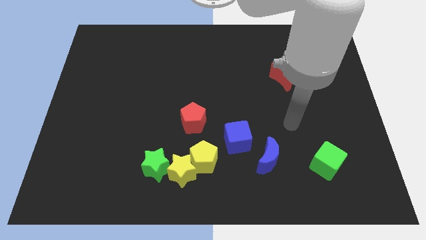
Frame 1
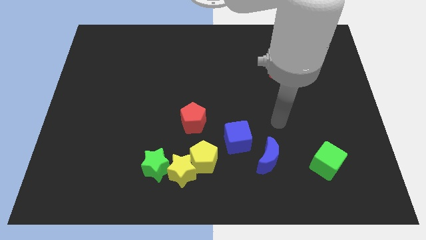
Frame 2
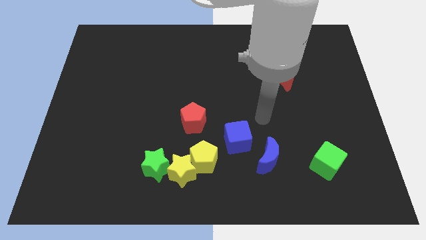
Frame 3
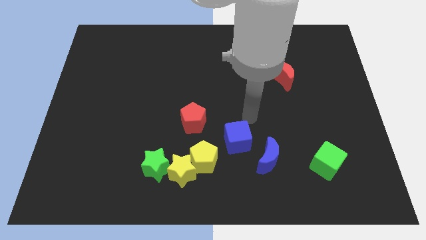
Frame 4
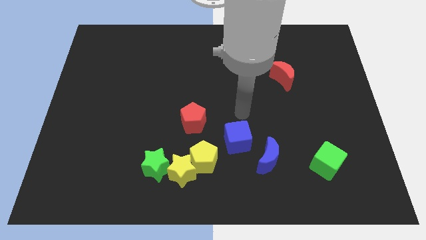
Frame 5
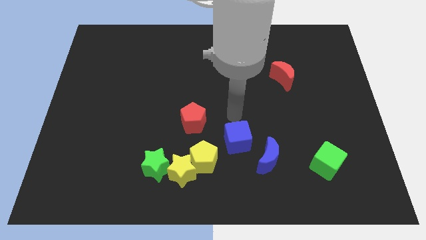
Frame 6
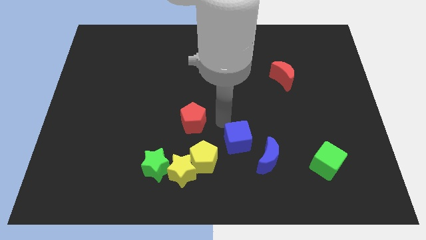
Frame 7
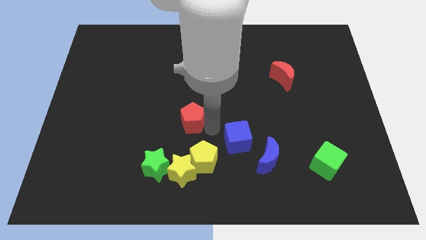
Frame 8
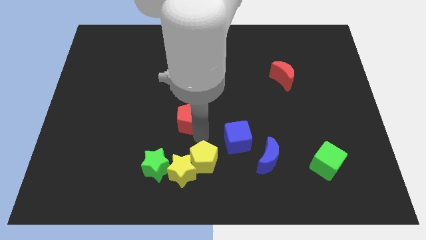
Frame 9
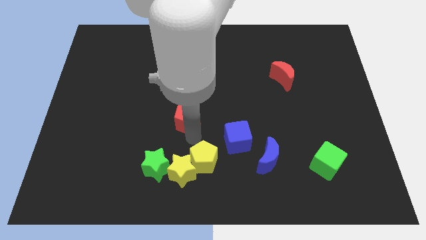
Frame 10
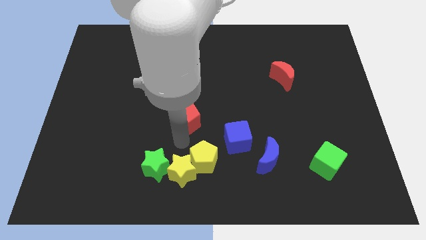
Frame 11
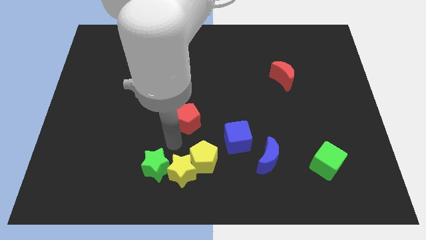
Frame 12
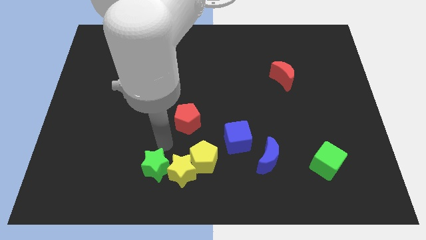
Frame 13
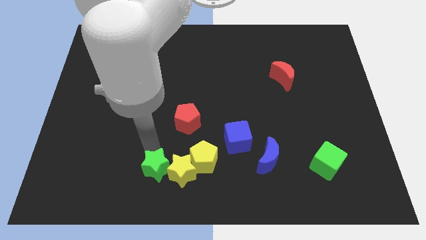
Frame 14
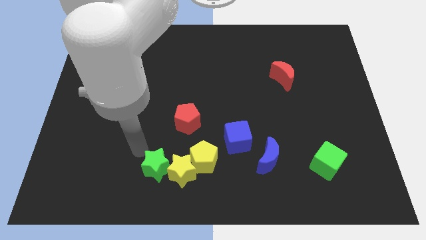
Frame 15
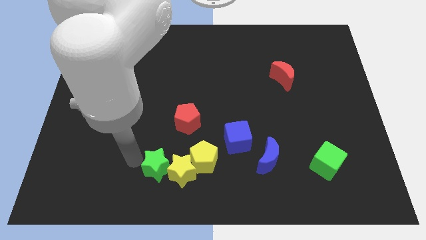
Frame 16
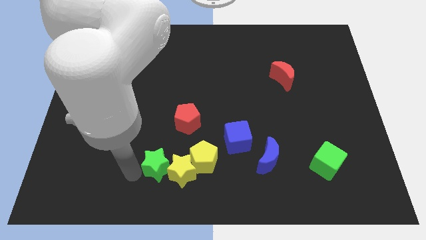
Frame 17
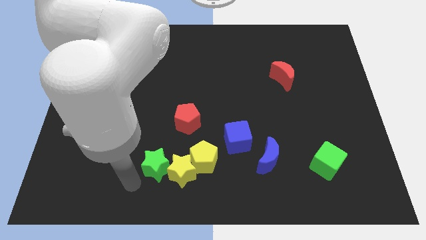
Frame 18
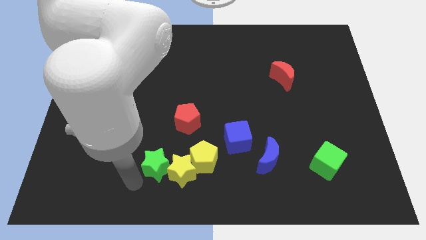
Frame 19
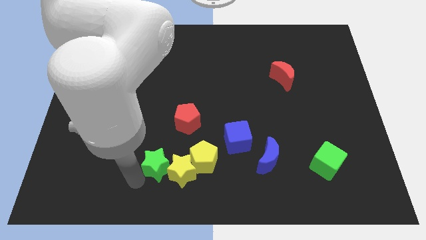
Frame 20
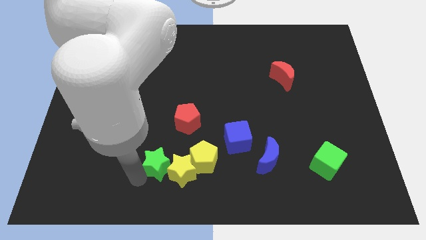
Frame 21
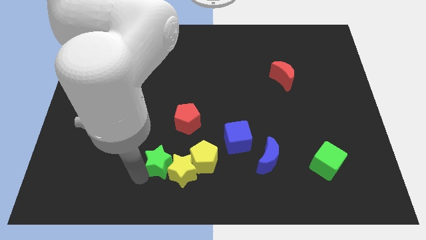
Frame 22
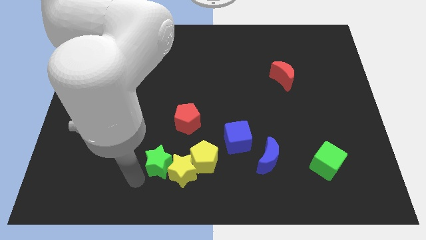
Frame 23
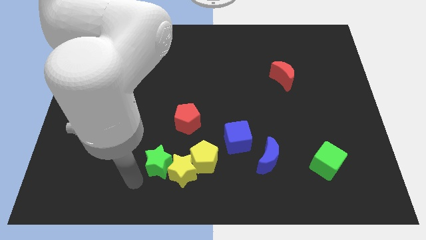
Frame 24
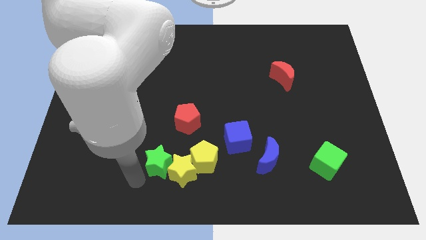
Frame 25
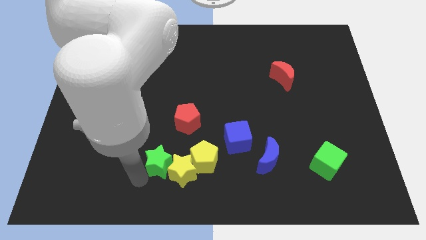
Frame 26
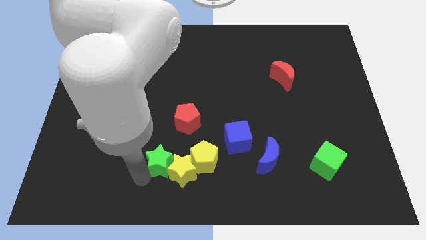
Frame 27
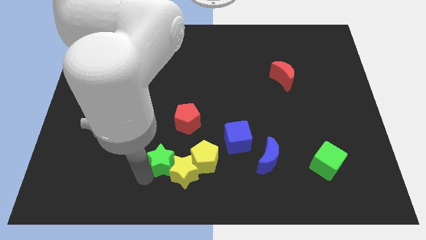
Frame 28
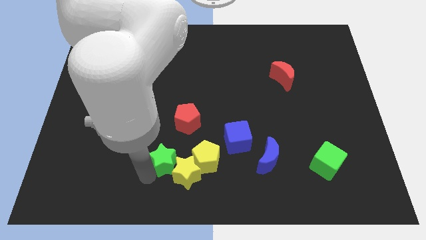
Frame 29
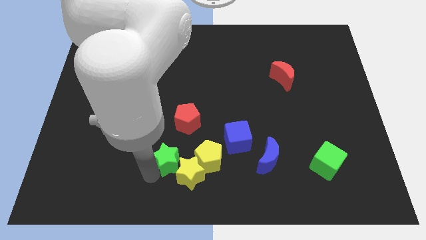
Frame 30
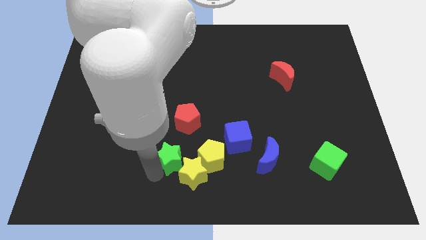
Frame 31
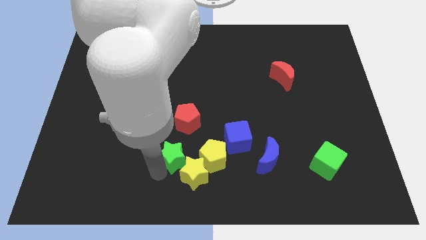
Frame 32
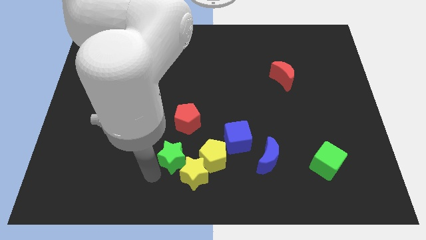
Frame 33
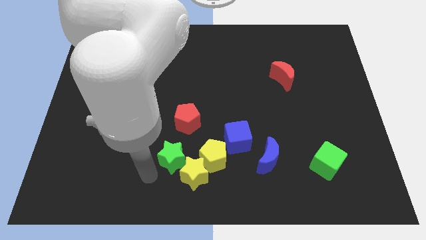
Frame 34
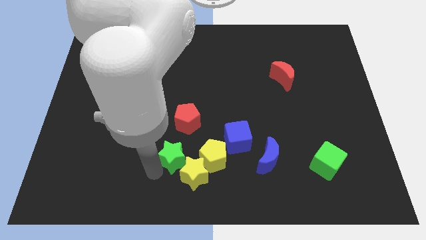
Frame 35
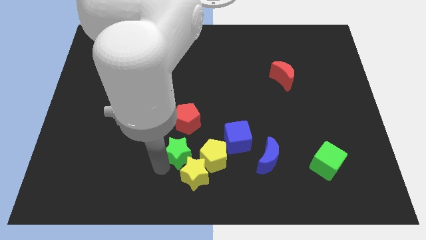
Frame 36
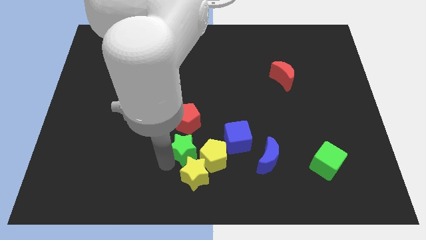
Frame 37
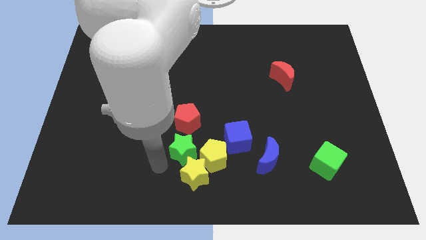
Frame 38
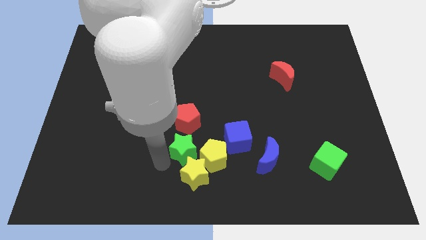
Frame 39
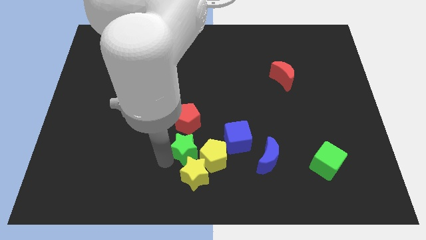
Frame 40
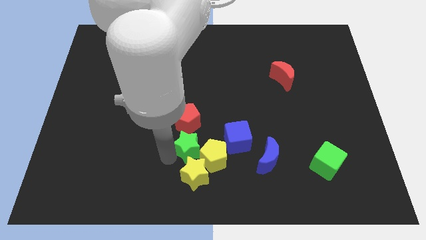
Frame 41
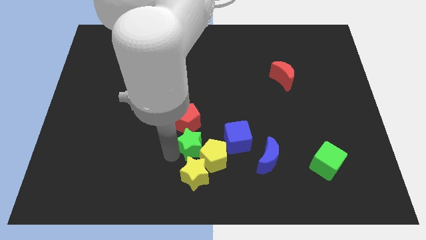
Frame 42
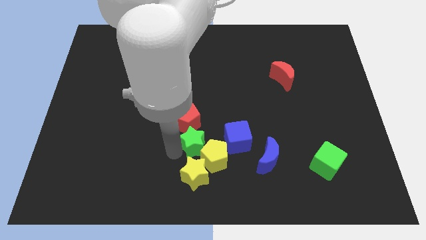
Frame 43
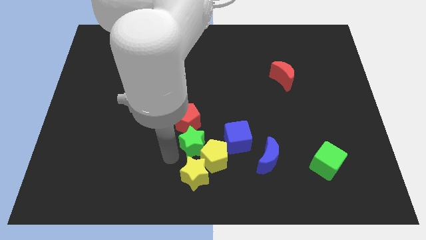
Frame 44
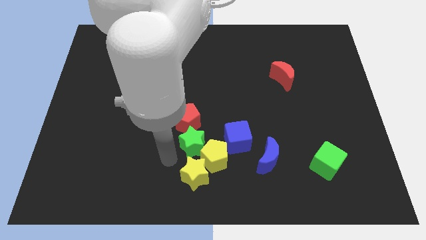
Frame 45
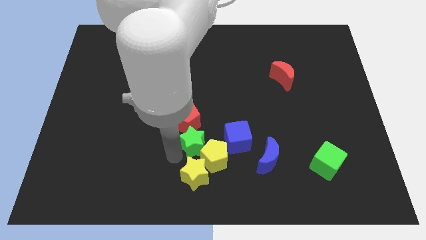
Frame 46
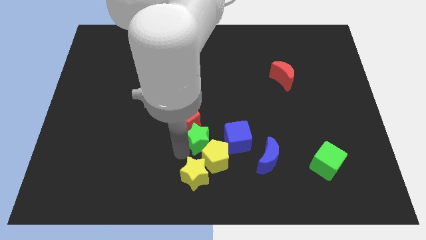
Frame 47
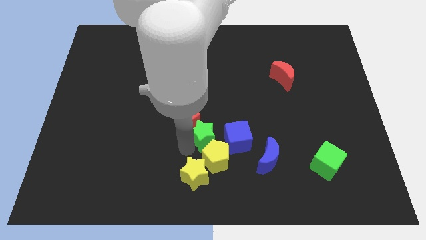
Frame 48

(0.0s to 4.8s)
put the green star right of the red pentagon

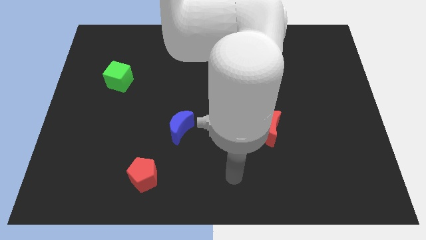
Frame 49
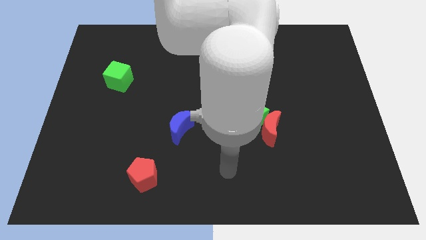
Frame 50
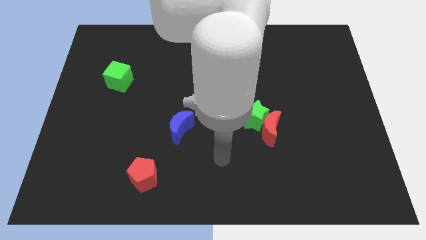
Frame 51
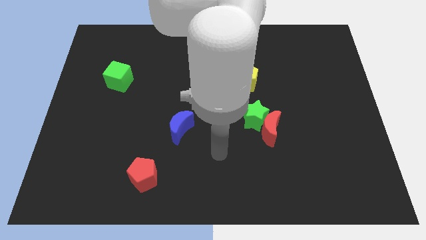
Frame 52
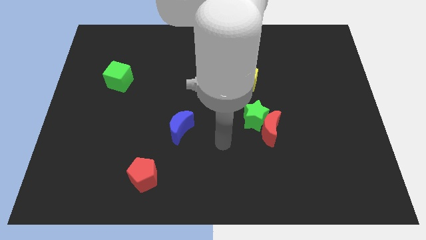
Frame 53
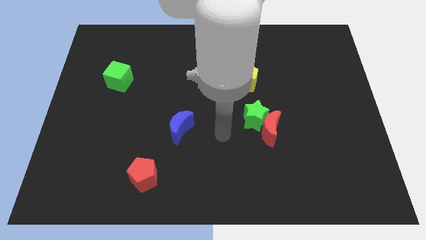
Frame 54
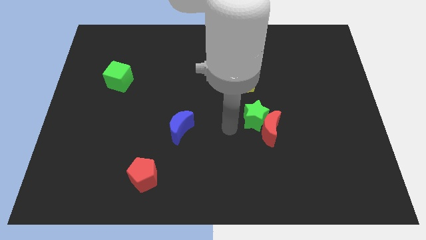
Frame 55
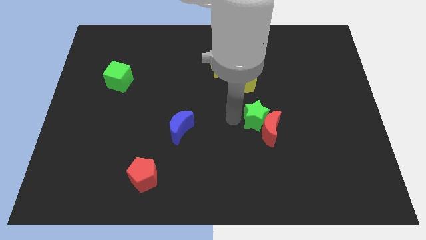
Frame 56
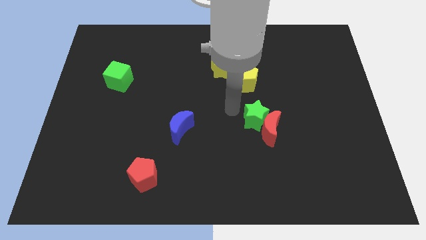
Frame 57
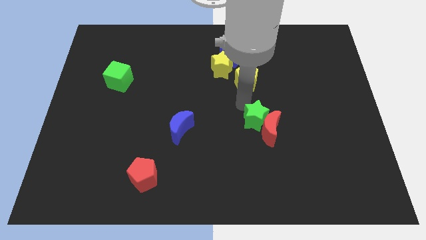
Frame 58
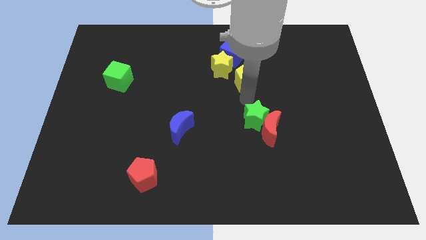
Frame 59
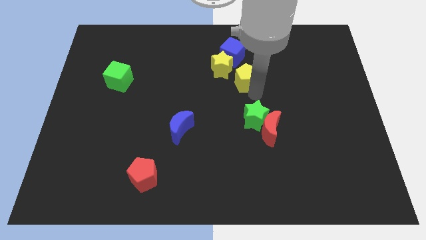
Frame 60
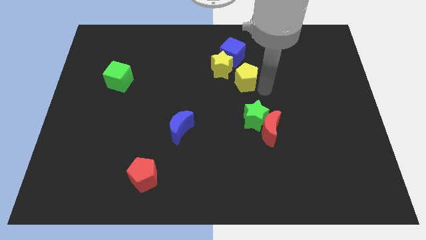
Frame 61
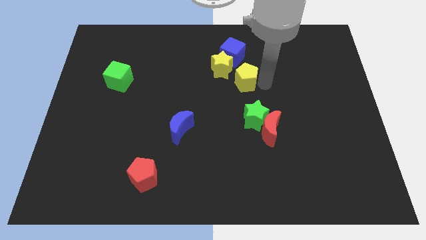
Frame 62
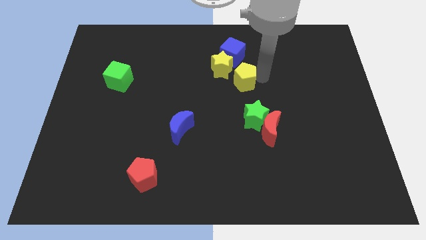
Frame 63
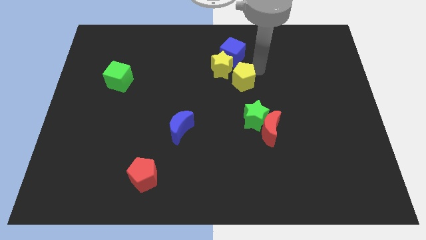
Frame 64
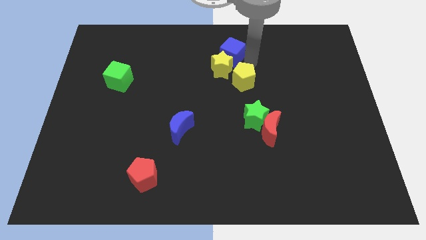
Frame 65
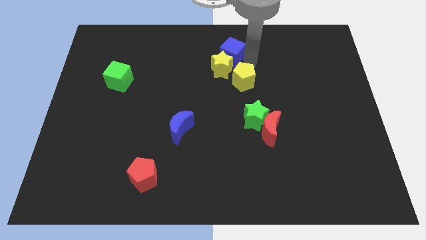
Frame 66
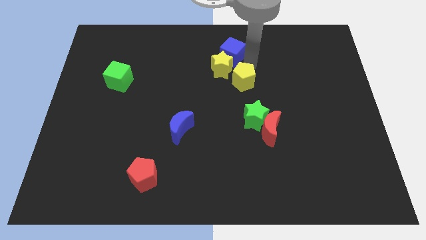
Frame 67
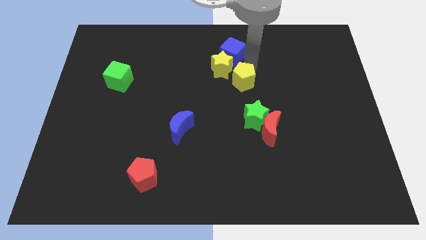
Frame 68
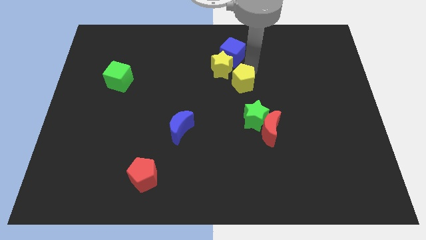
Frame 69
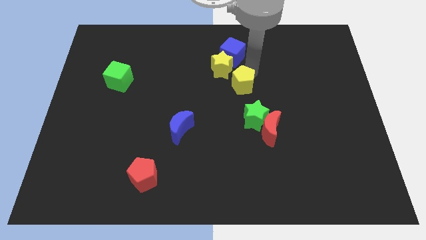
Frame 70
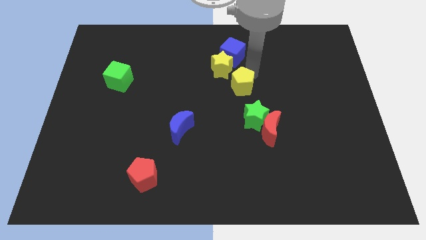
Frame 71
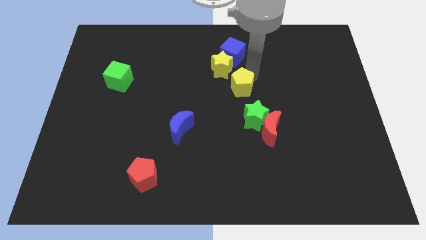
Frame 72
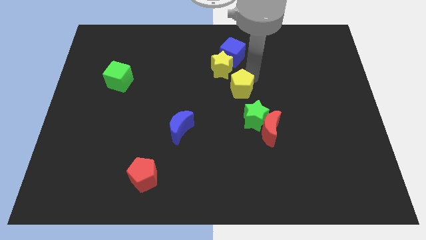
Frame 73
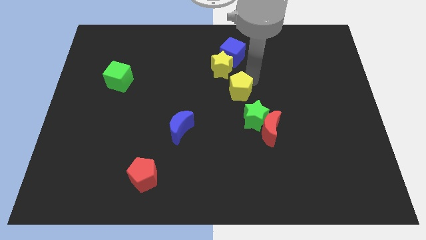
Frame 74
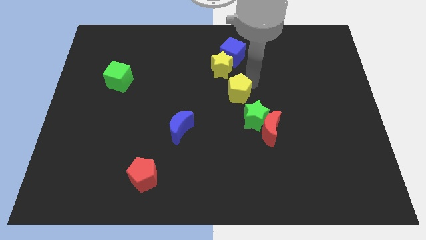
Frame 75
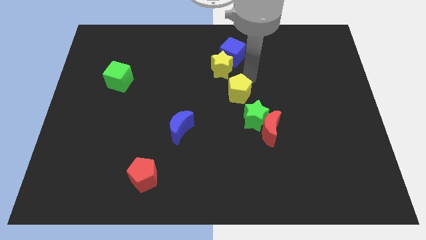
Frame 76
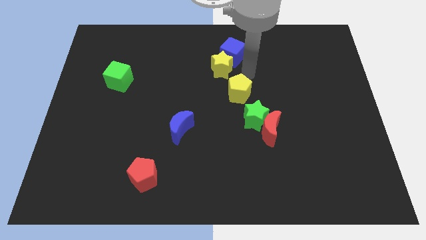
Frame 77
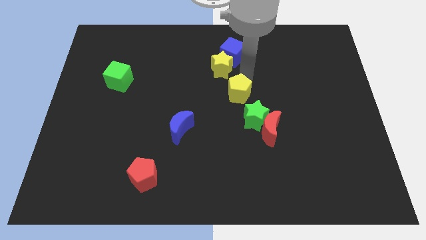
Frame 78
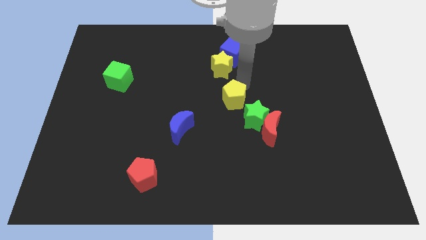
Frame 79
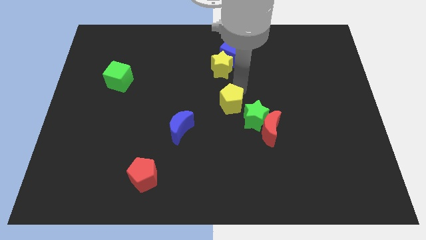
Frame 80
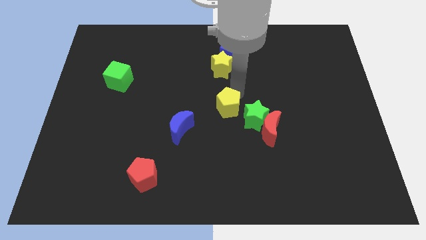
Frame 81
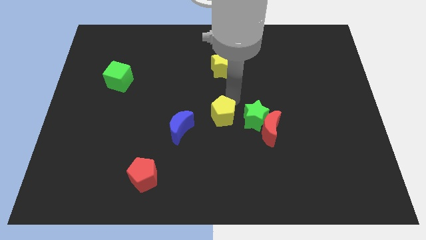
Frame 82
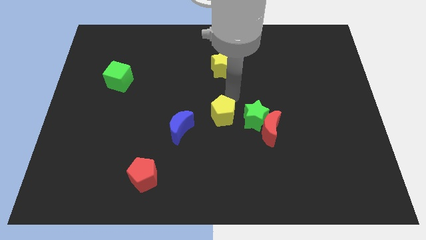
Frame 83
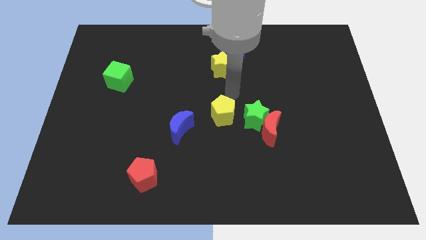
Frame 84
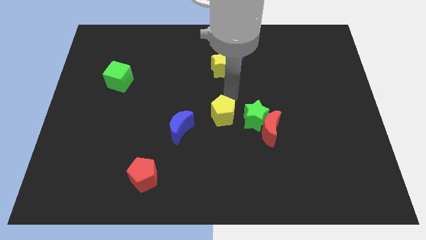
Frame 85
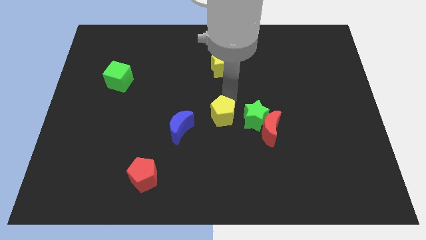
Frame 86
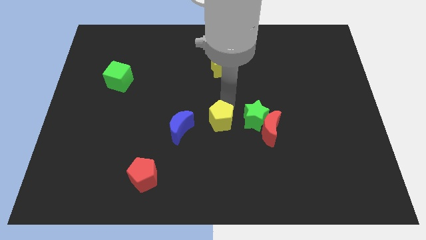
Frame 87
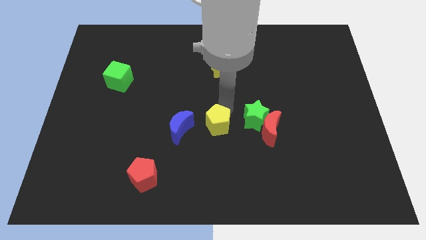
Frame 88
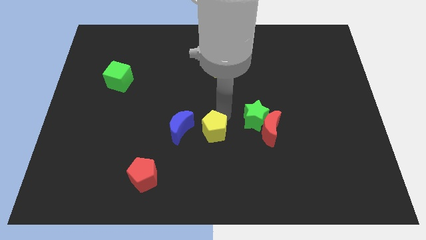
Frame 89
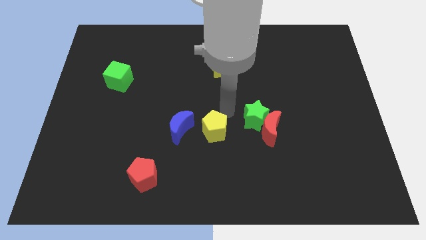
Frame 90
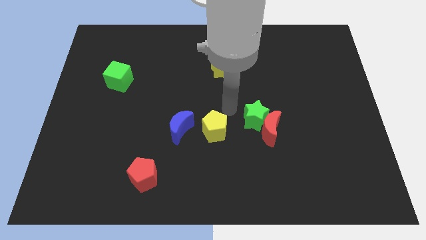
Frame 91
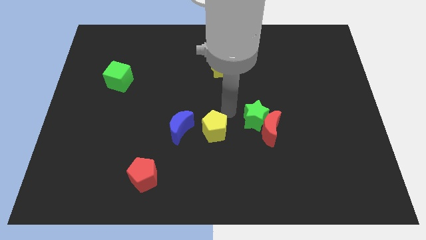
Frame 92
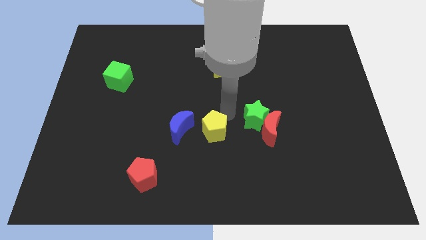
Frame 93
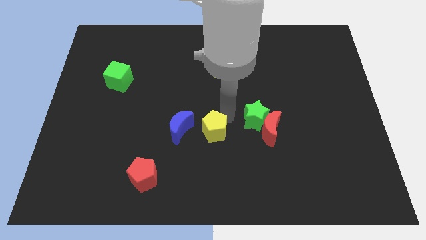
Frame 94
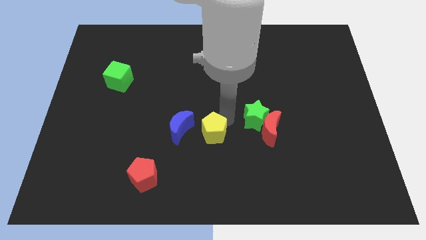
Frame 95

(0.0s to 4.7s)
move the yellow pentagon to the bottom right of the blue moon
